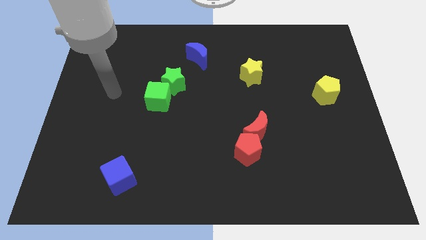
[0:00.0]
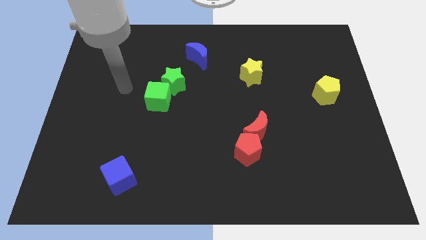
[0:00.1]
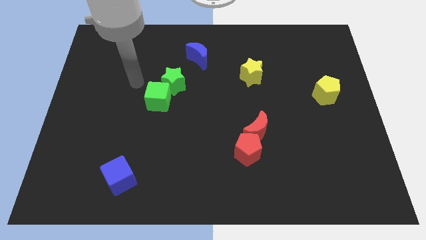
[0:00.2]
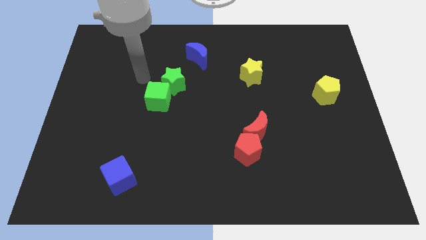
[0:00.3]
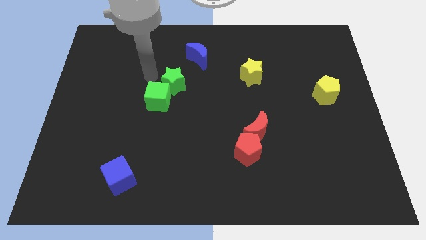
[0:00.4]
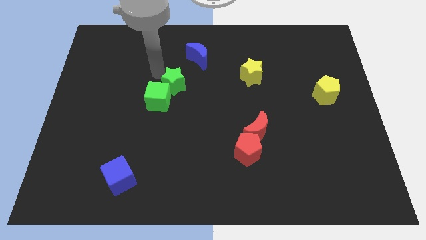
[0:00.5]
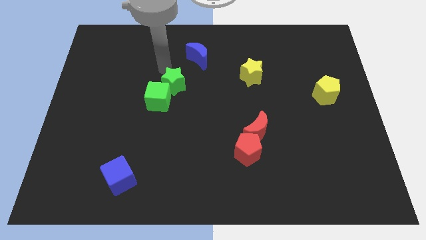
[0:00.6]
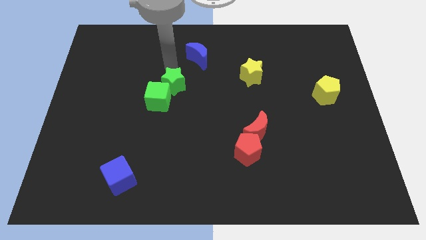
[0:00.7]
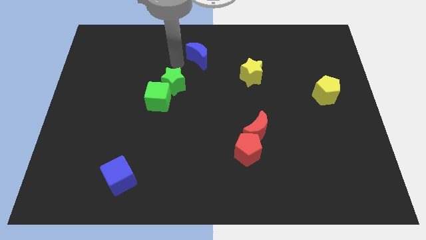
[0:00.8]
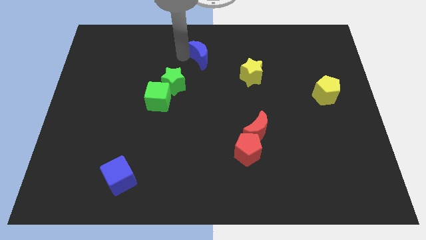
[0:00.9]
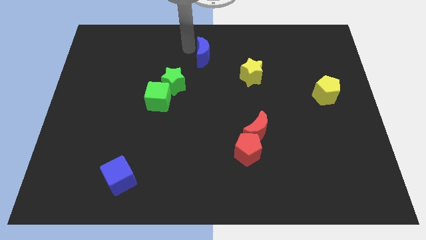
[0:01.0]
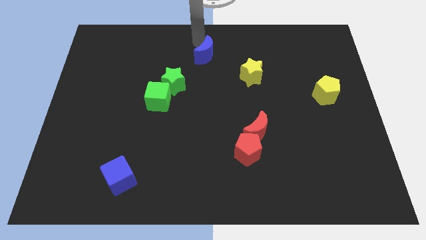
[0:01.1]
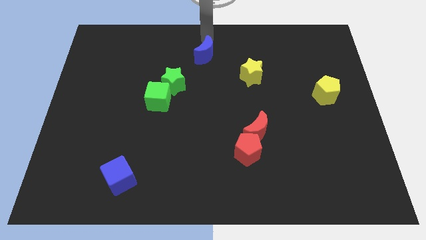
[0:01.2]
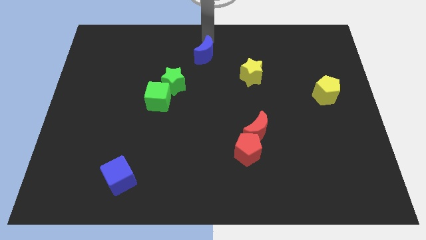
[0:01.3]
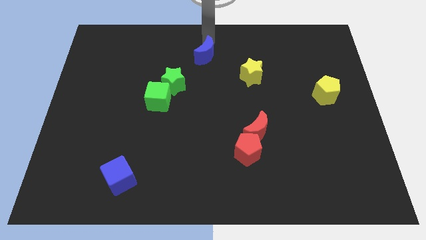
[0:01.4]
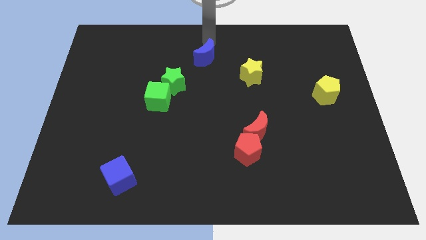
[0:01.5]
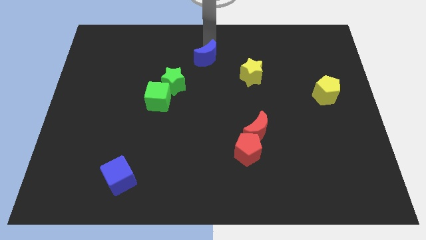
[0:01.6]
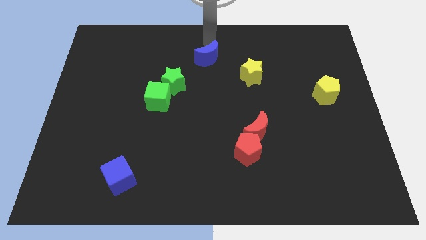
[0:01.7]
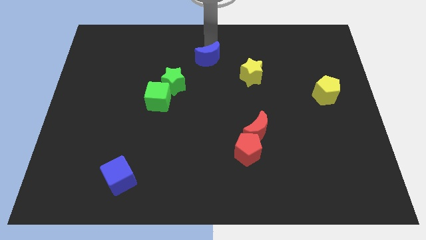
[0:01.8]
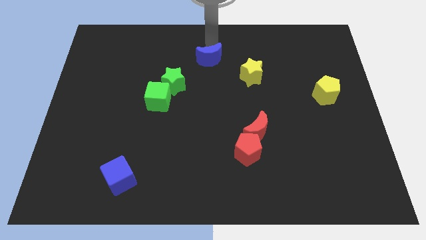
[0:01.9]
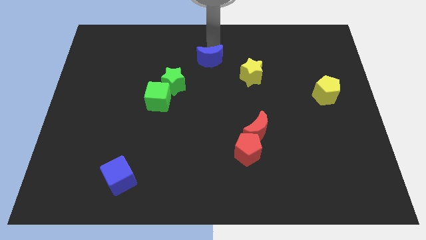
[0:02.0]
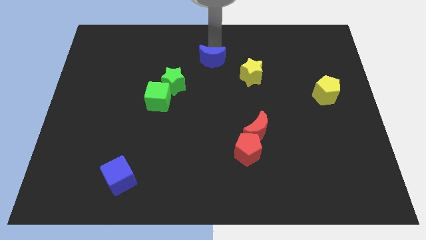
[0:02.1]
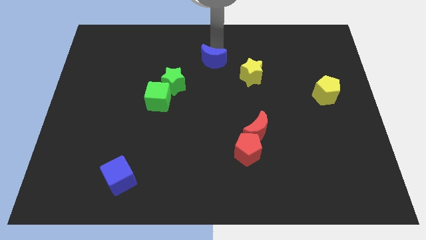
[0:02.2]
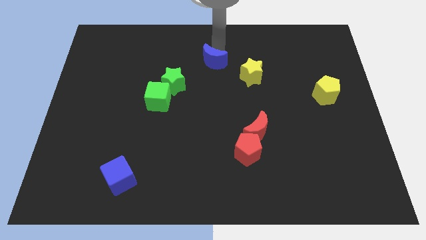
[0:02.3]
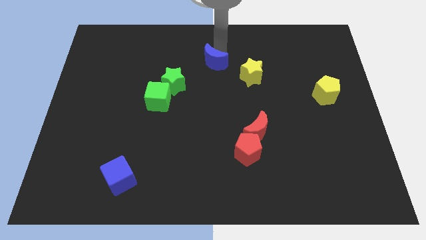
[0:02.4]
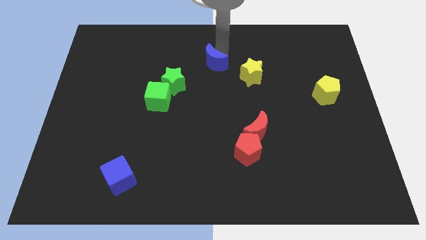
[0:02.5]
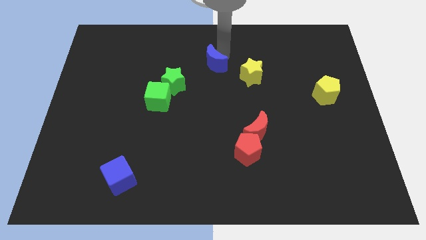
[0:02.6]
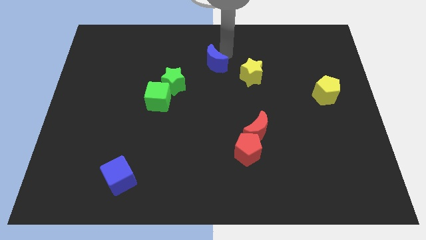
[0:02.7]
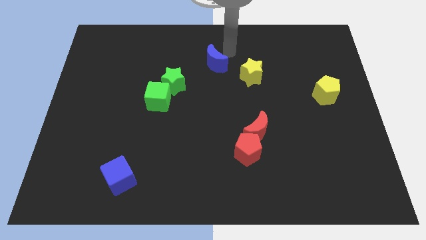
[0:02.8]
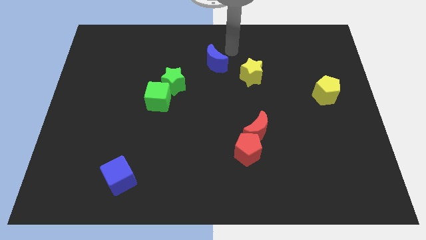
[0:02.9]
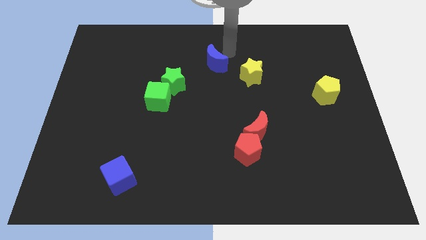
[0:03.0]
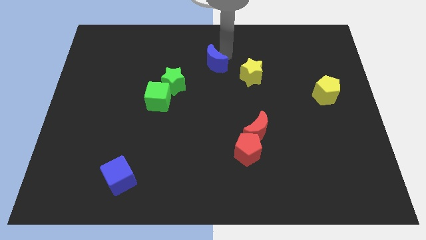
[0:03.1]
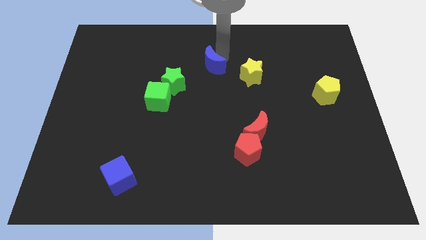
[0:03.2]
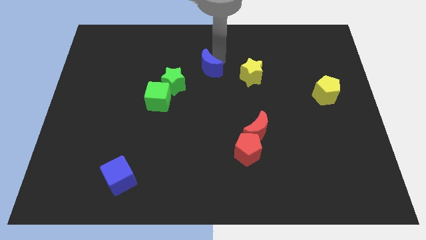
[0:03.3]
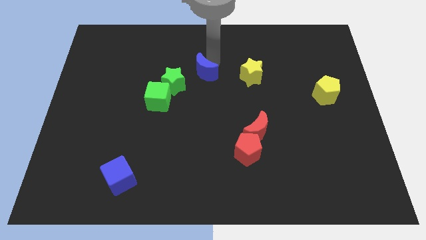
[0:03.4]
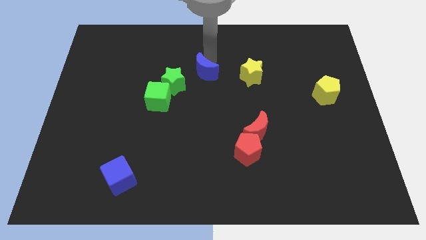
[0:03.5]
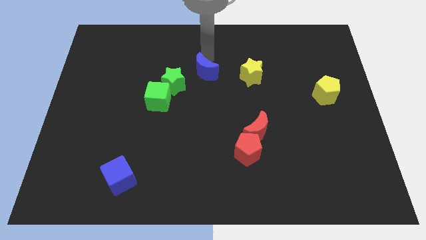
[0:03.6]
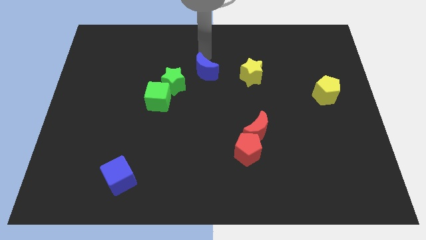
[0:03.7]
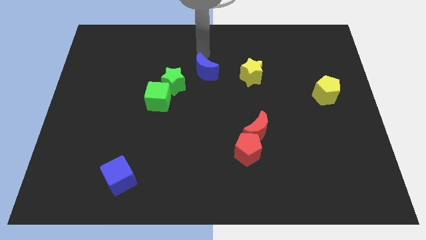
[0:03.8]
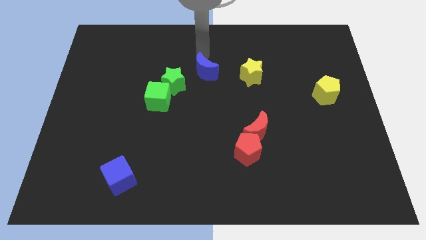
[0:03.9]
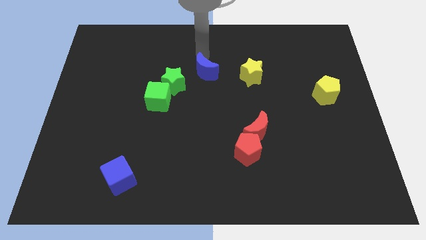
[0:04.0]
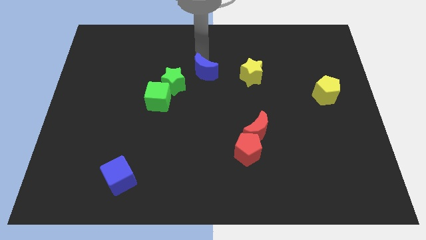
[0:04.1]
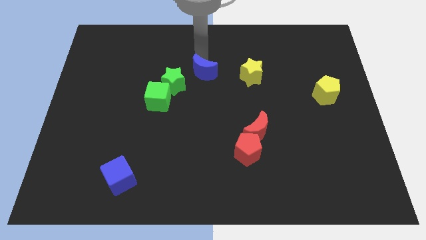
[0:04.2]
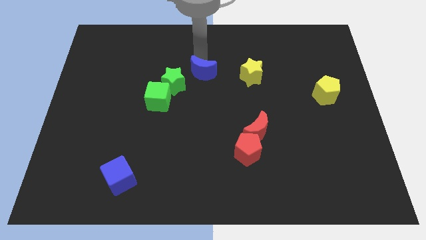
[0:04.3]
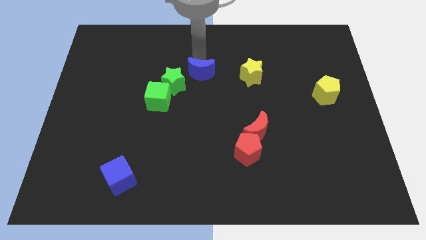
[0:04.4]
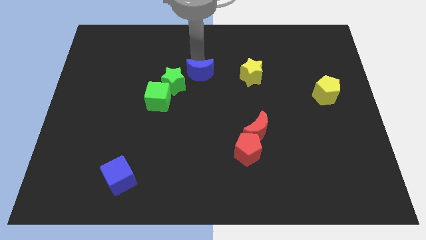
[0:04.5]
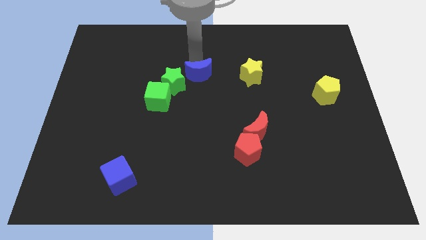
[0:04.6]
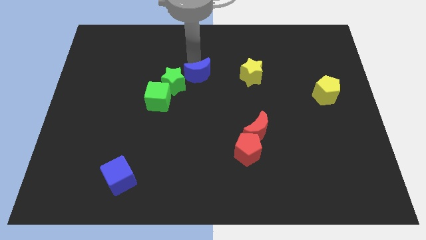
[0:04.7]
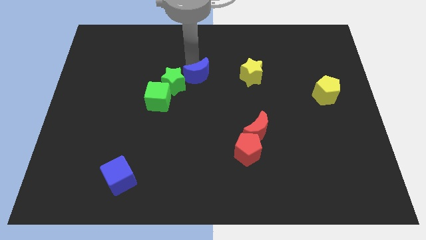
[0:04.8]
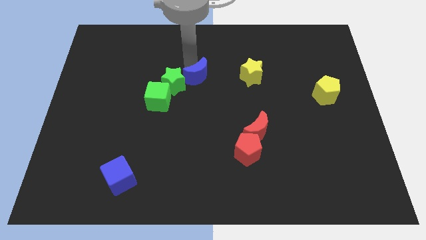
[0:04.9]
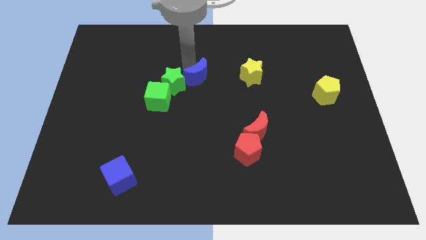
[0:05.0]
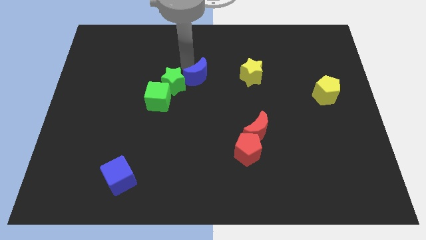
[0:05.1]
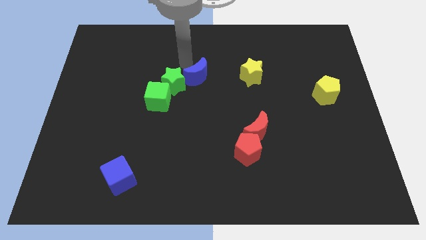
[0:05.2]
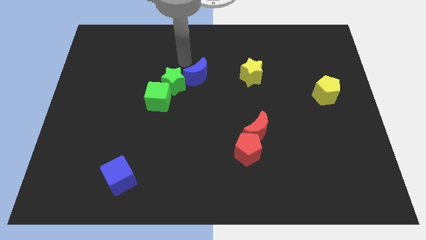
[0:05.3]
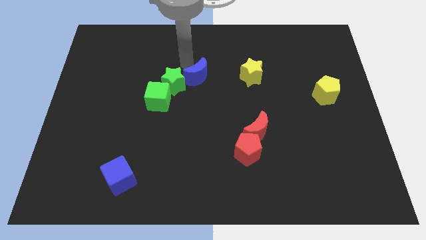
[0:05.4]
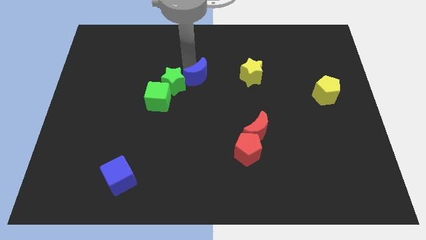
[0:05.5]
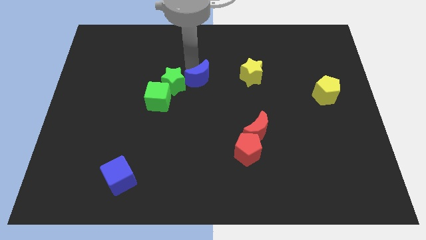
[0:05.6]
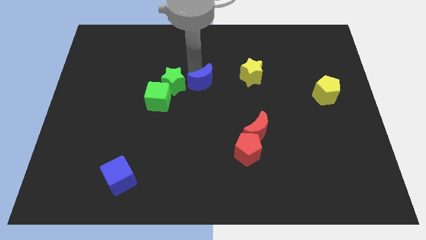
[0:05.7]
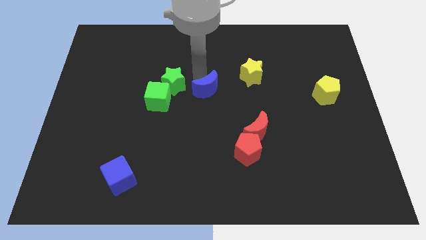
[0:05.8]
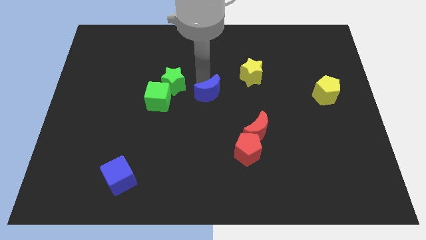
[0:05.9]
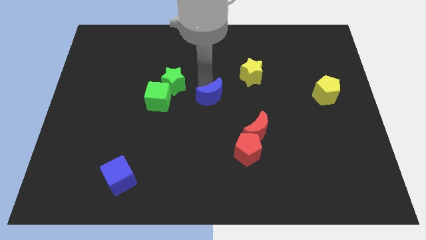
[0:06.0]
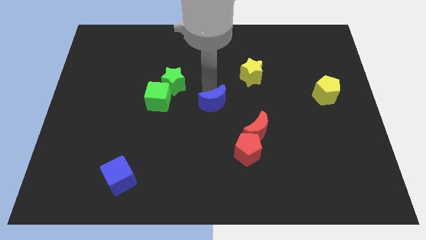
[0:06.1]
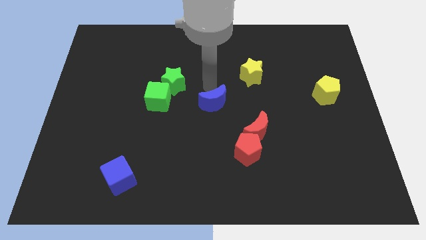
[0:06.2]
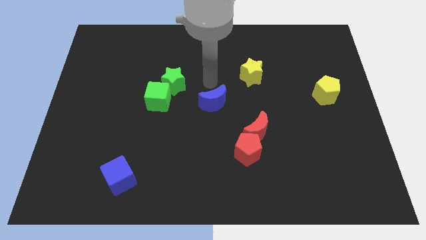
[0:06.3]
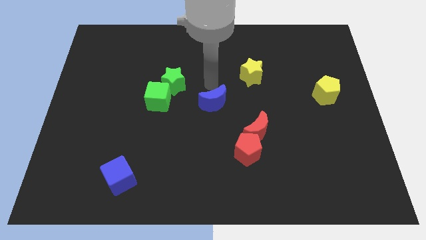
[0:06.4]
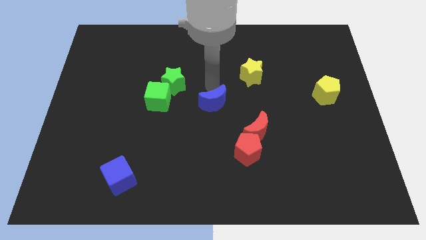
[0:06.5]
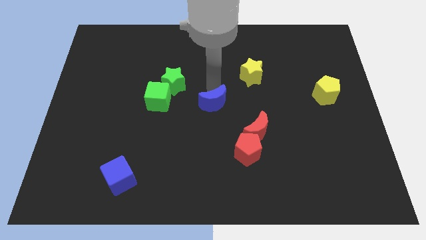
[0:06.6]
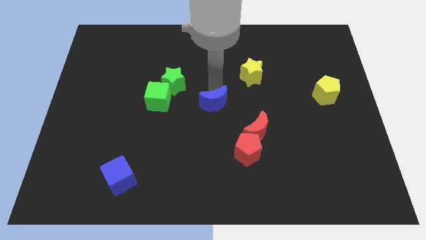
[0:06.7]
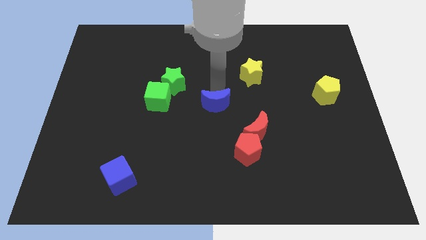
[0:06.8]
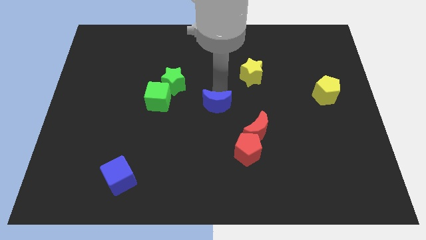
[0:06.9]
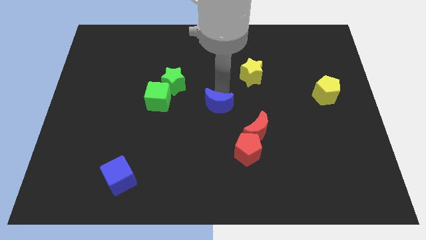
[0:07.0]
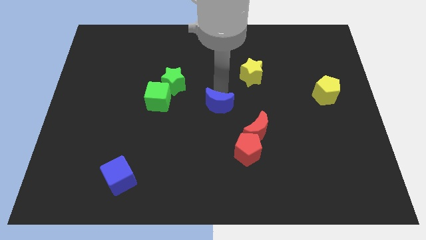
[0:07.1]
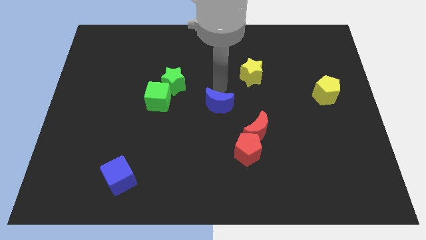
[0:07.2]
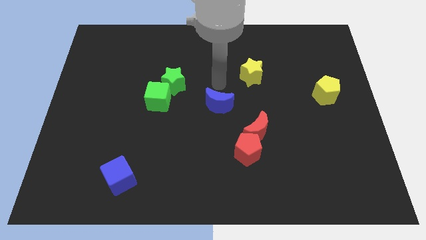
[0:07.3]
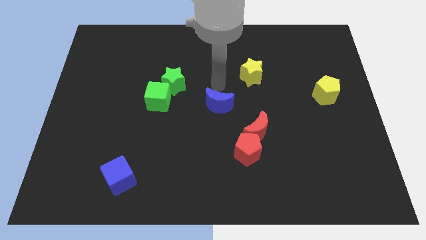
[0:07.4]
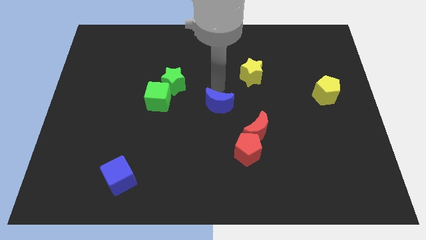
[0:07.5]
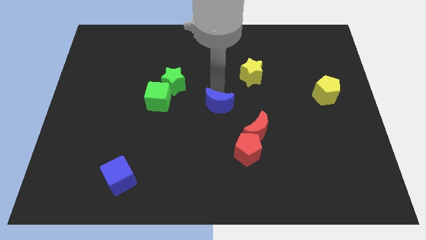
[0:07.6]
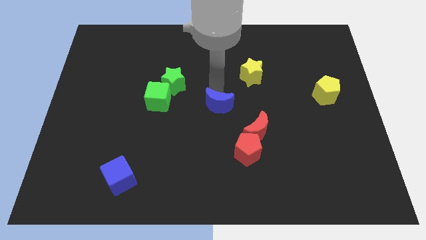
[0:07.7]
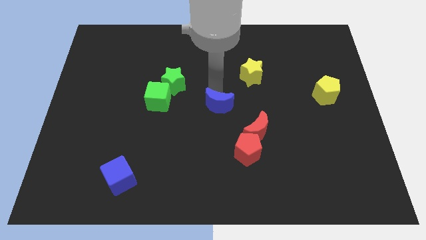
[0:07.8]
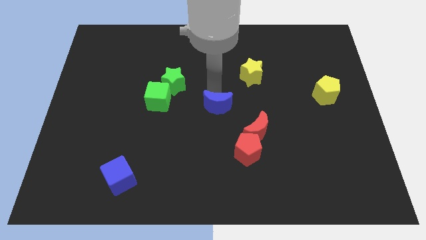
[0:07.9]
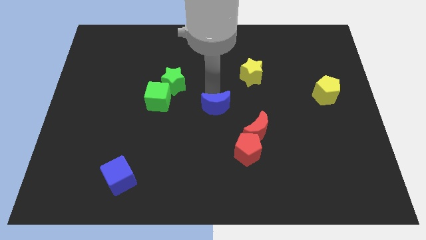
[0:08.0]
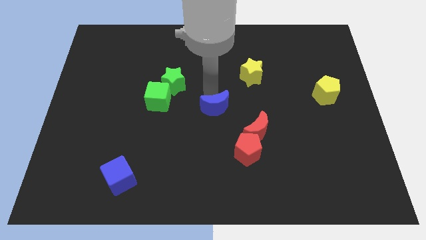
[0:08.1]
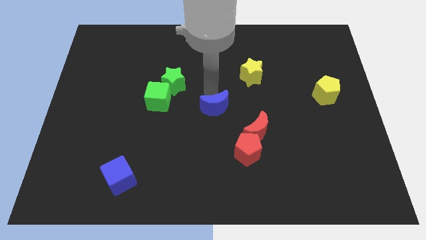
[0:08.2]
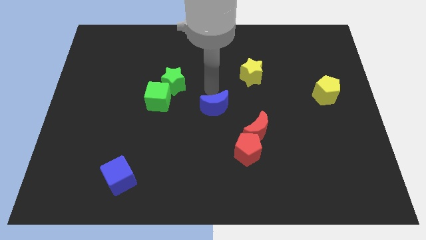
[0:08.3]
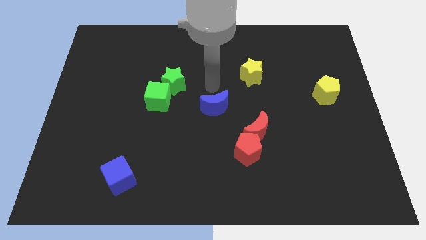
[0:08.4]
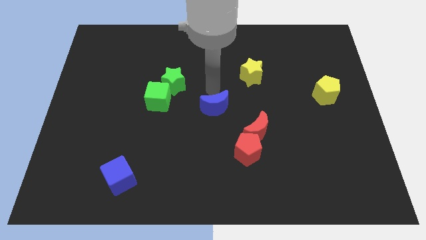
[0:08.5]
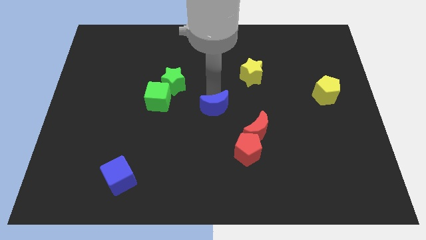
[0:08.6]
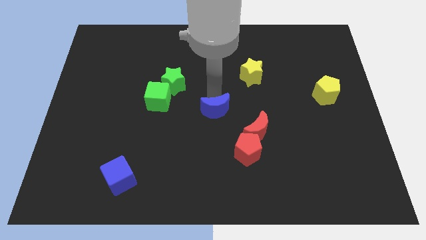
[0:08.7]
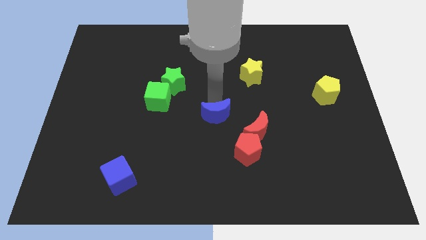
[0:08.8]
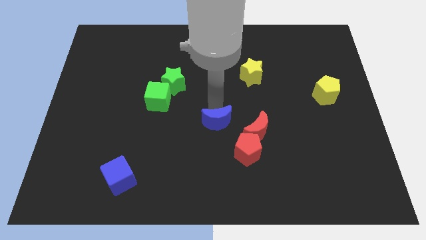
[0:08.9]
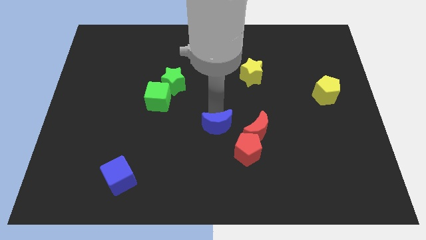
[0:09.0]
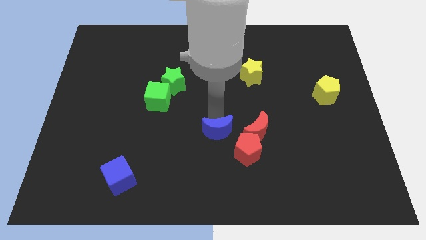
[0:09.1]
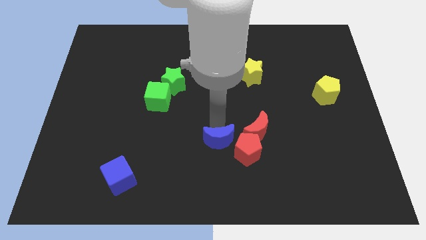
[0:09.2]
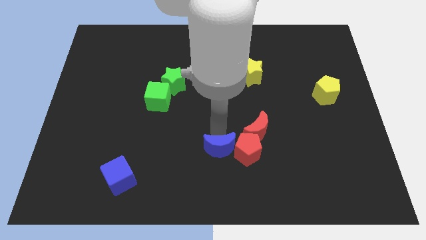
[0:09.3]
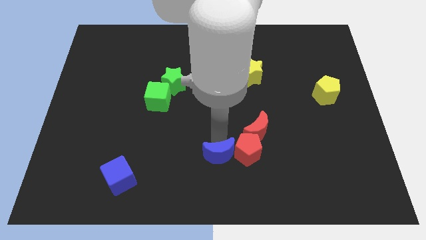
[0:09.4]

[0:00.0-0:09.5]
push the blue moon to the bottom side
